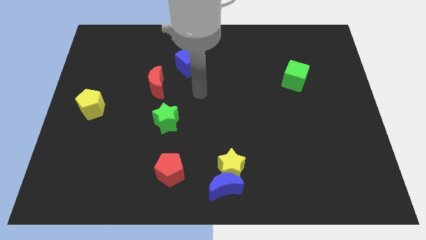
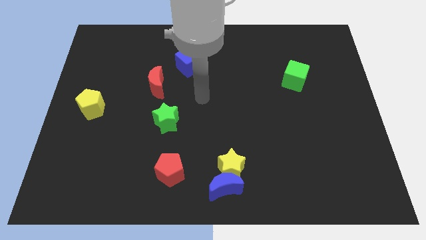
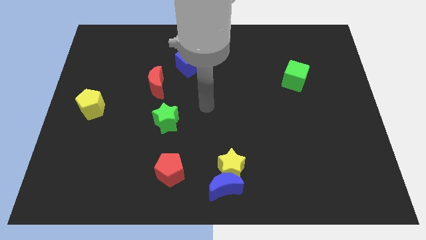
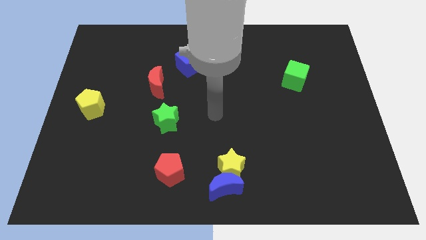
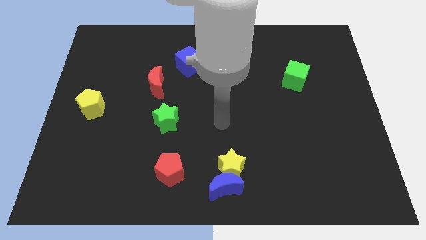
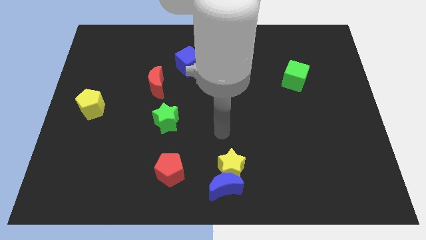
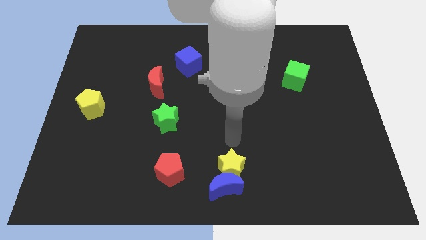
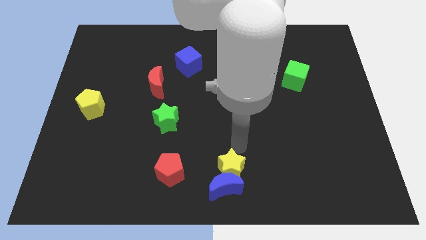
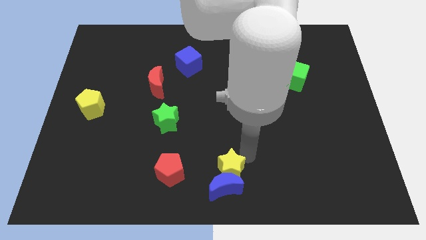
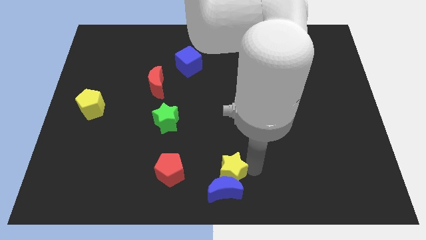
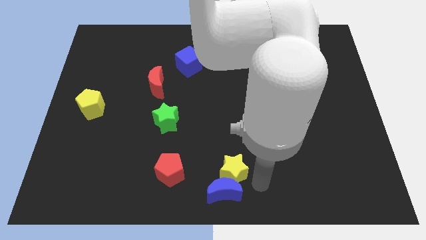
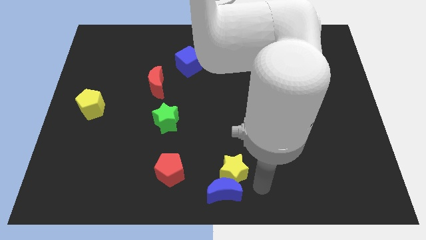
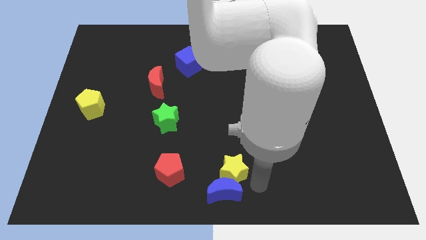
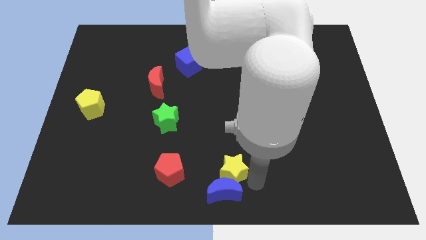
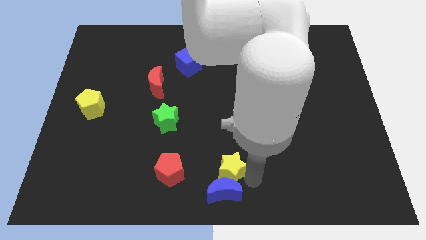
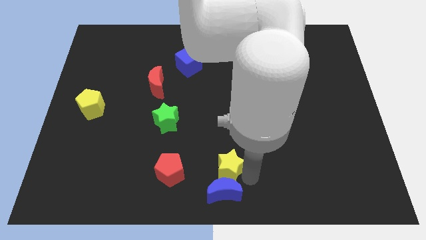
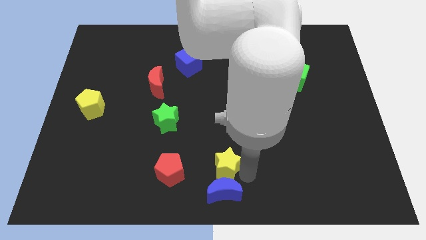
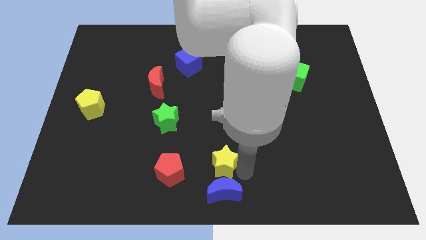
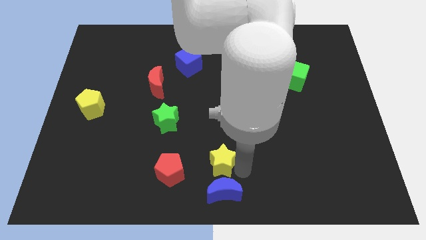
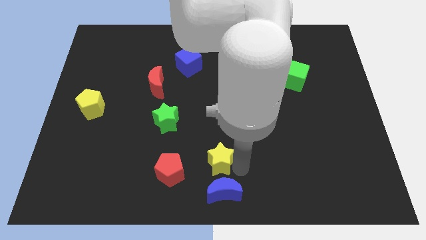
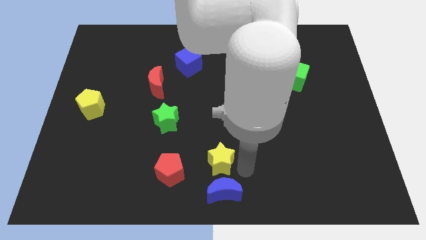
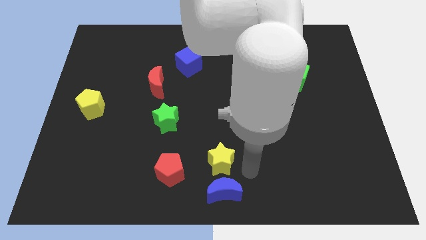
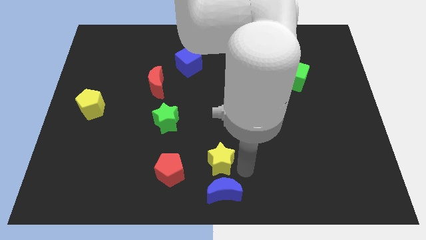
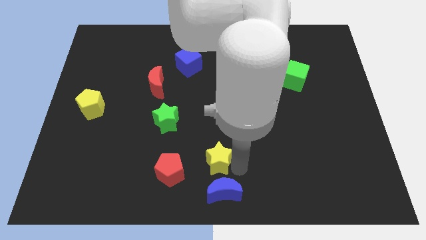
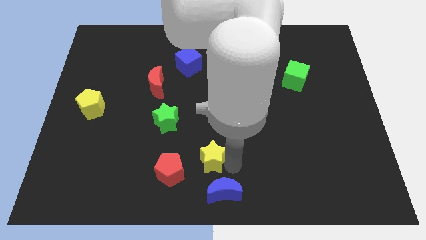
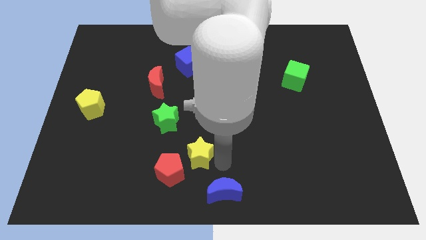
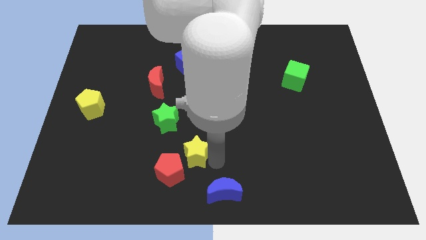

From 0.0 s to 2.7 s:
move the yellow star to the left a little

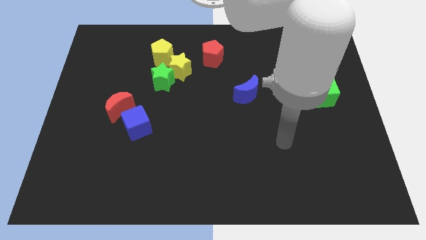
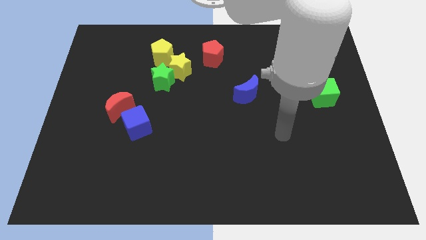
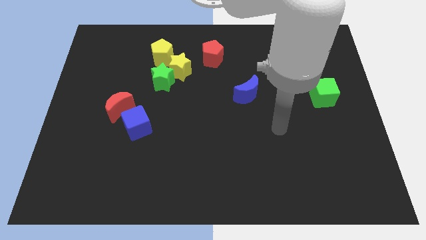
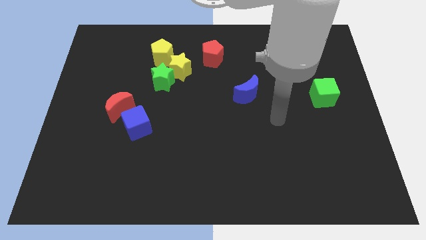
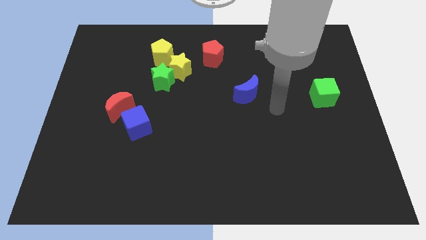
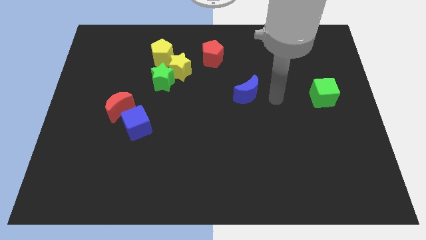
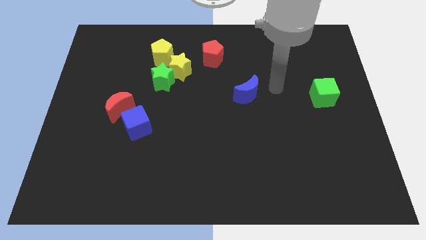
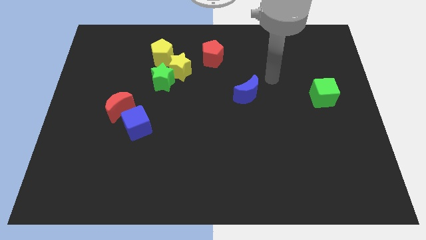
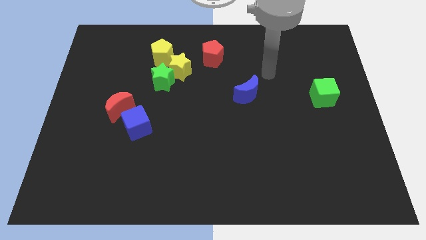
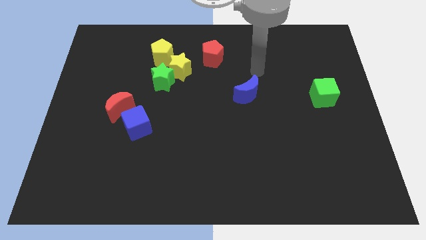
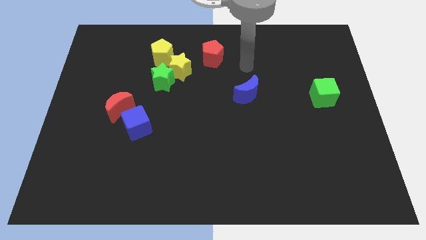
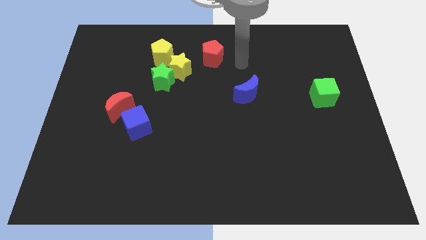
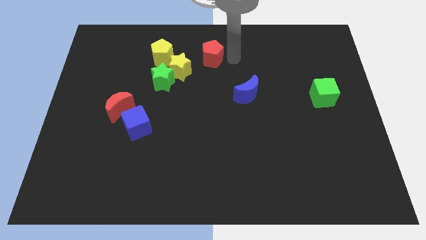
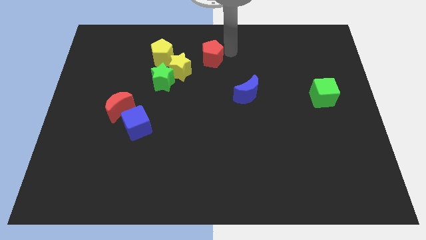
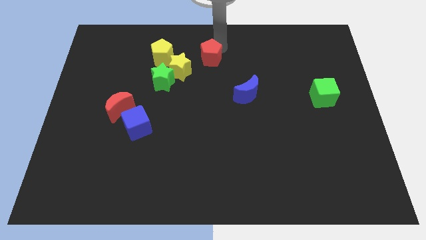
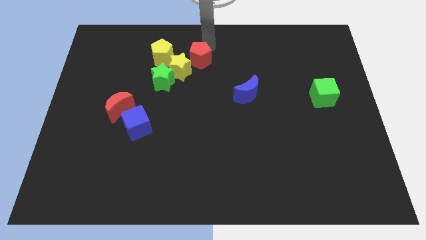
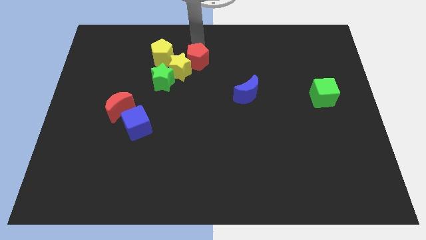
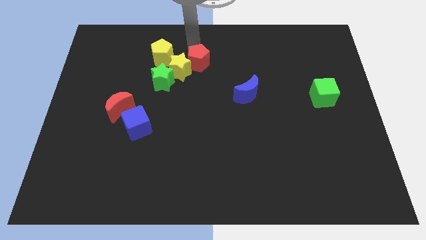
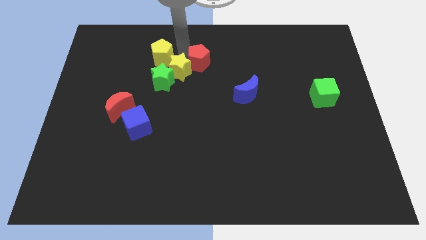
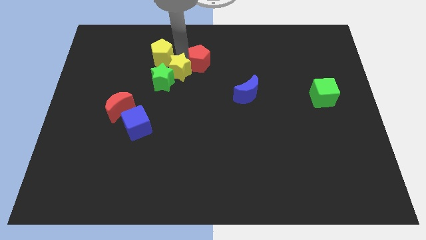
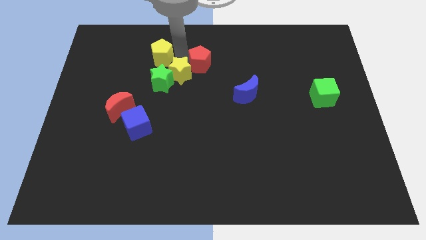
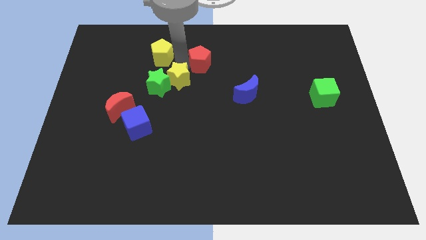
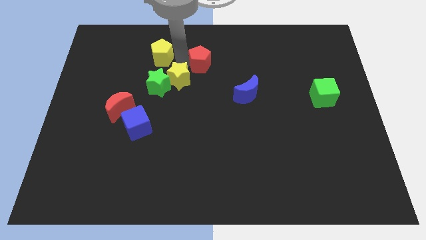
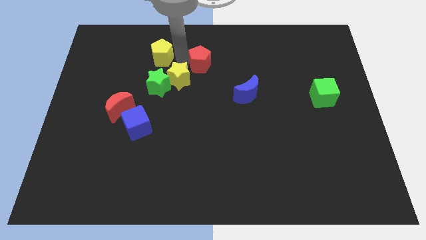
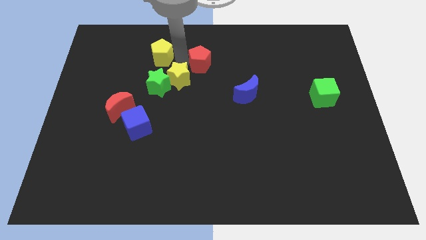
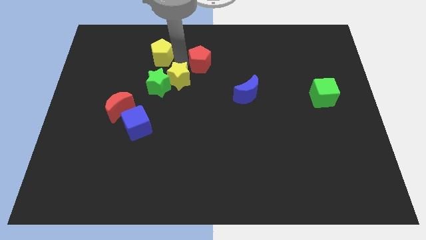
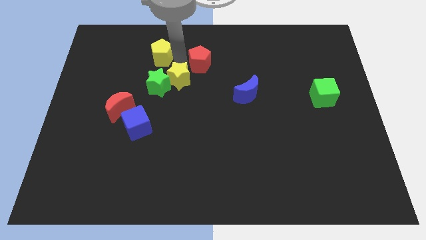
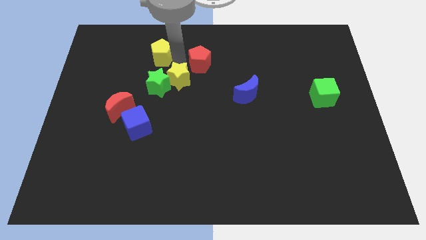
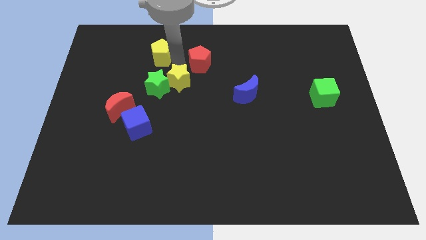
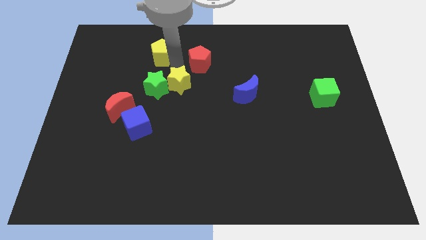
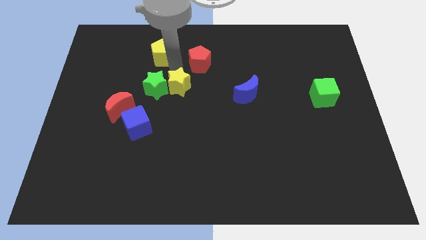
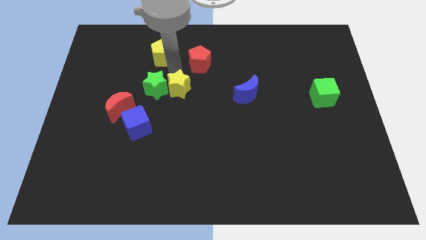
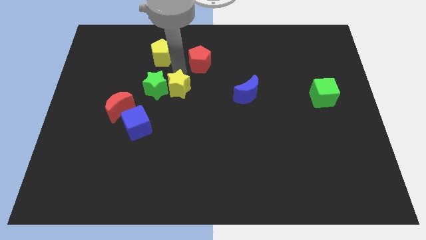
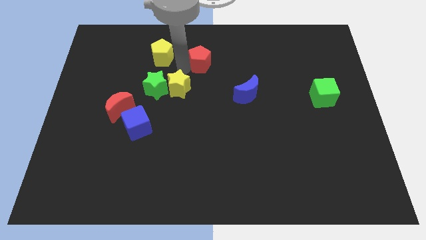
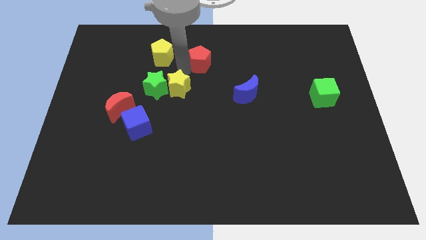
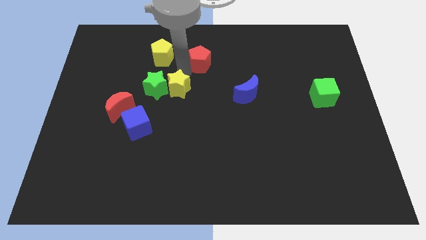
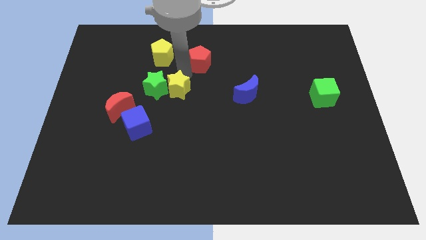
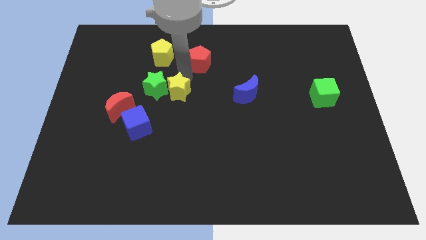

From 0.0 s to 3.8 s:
move the yellow star downwards a bit

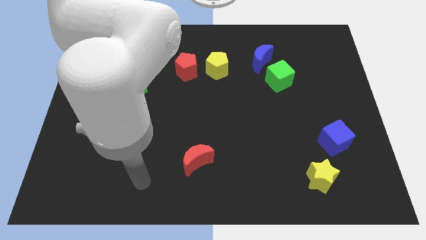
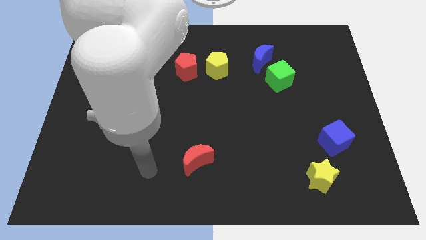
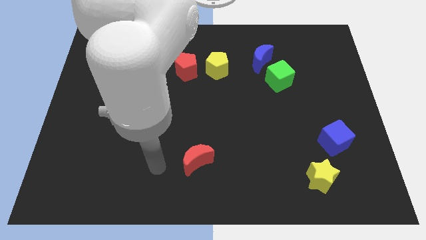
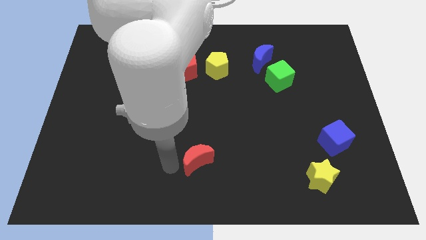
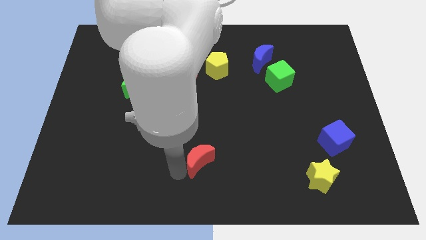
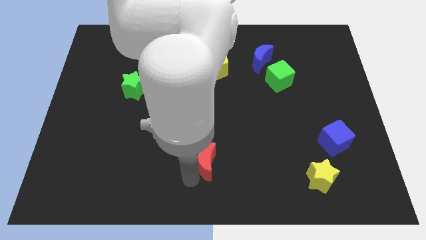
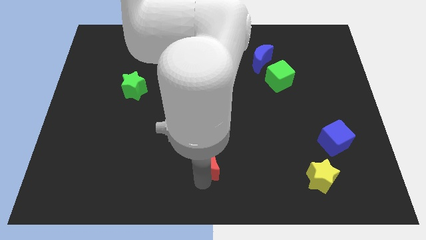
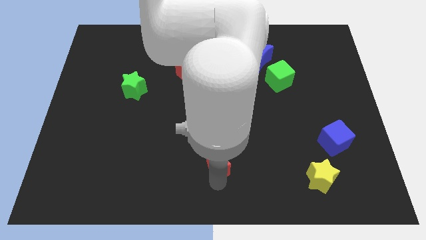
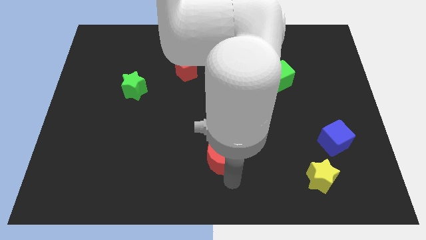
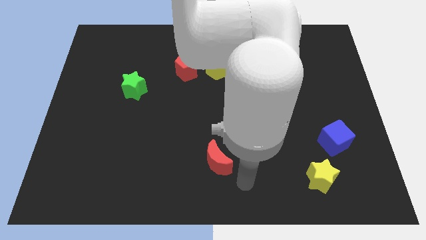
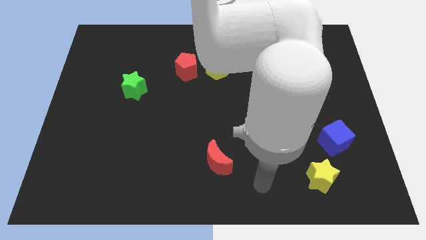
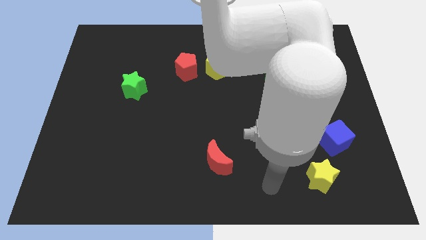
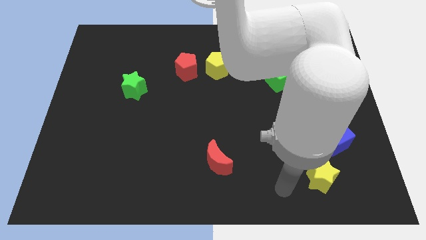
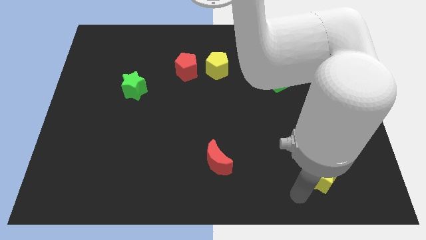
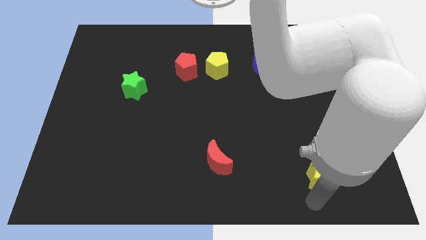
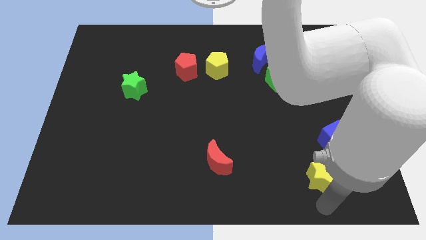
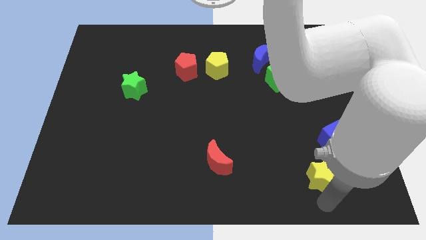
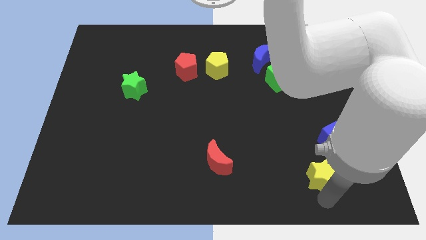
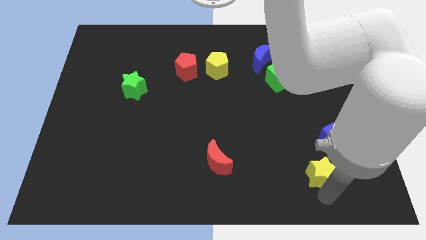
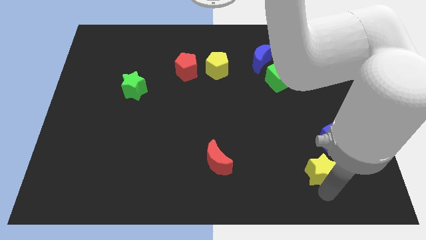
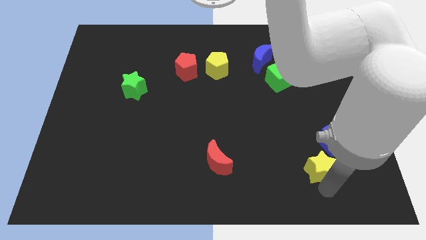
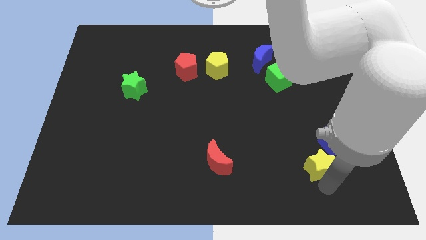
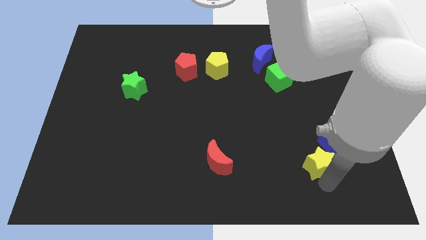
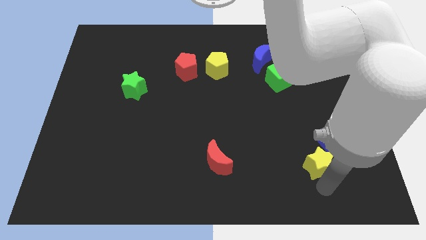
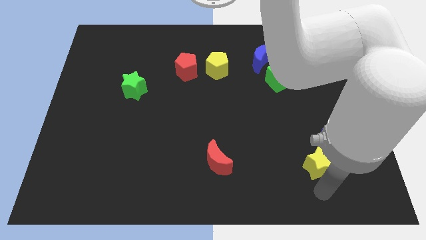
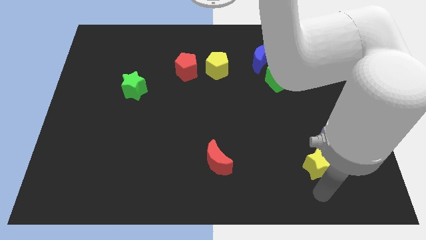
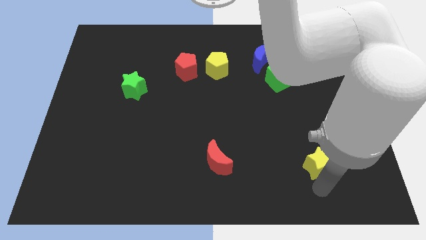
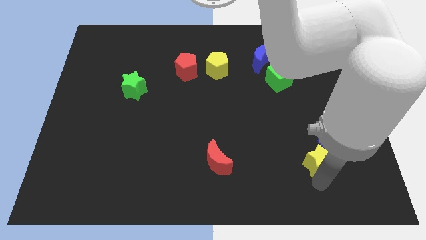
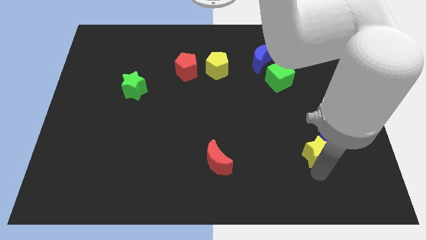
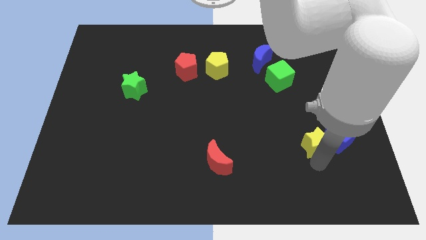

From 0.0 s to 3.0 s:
slightly move the yellow star up
